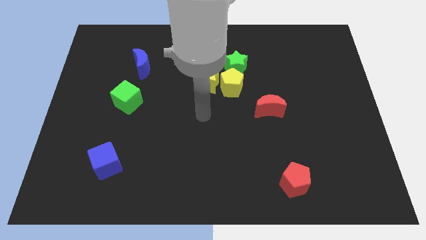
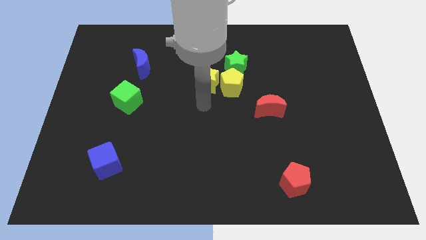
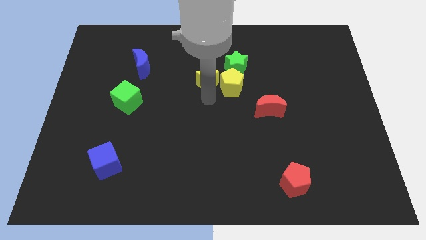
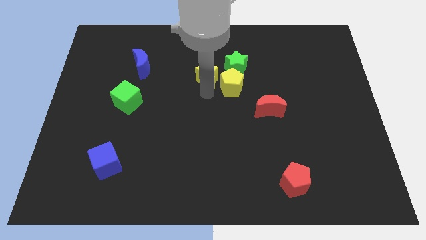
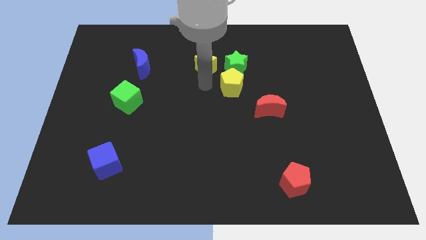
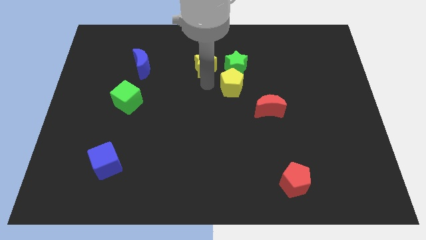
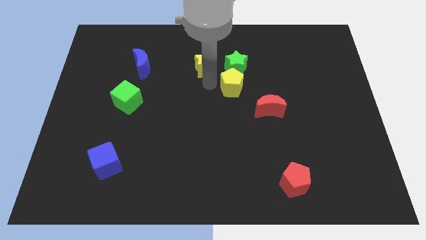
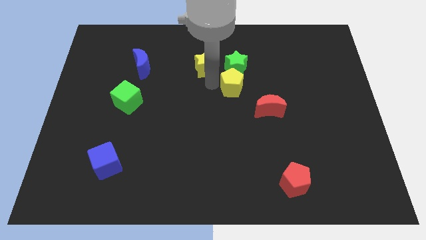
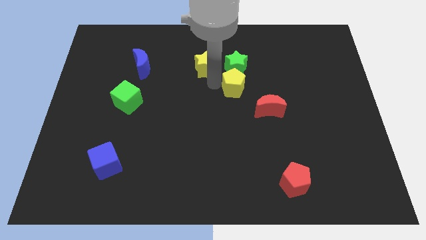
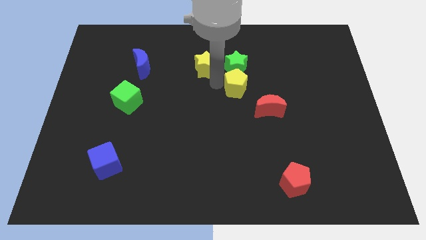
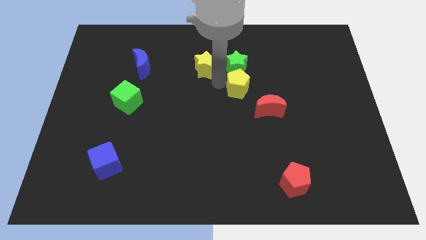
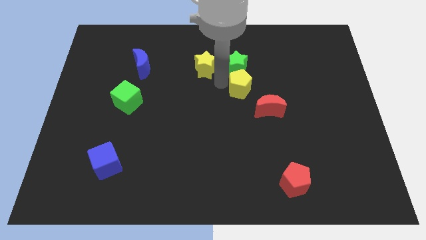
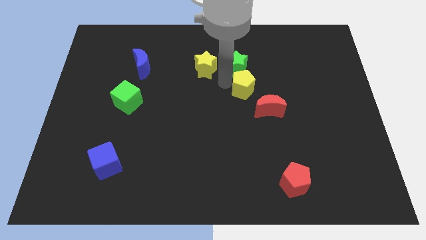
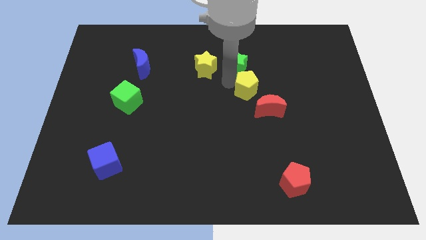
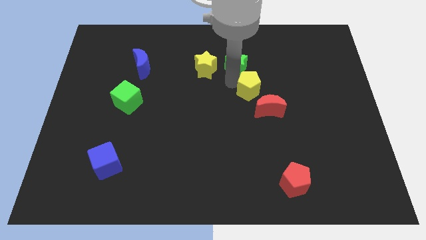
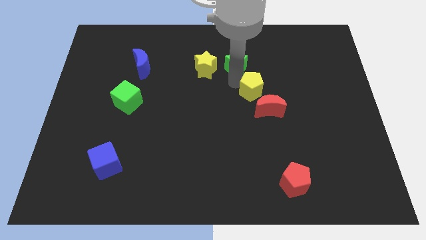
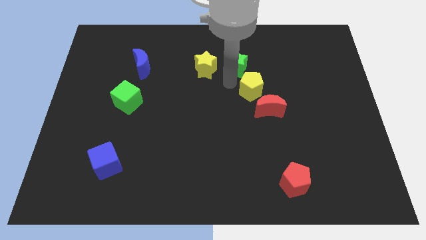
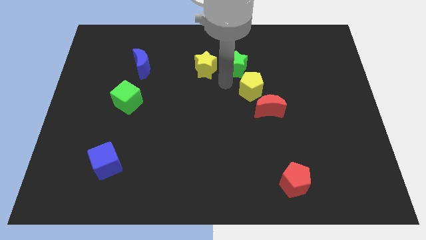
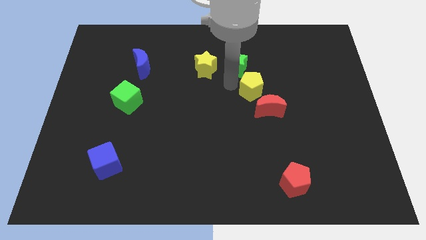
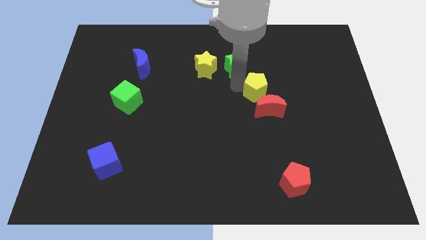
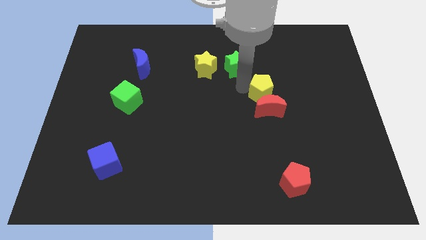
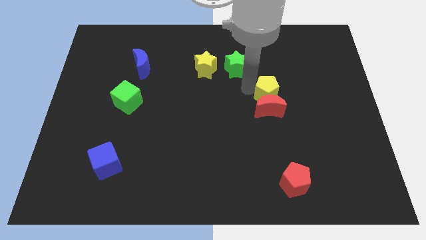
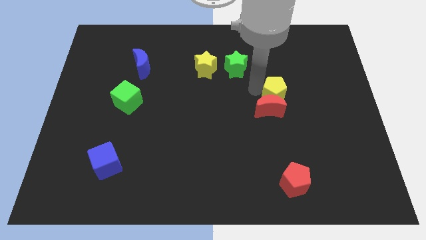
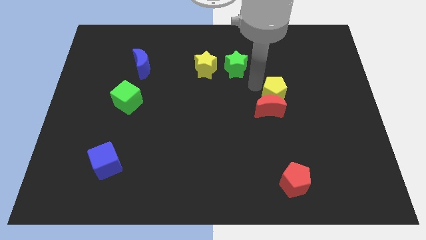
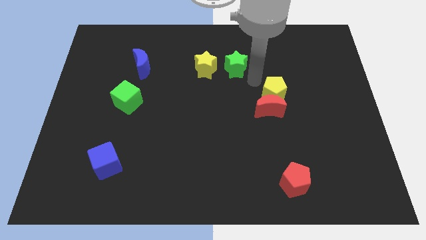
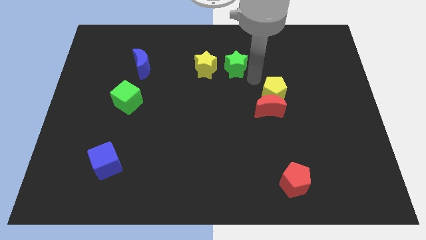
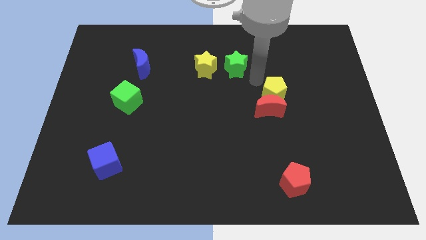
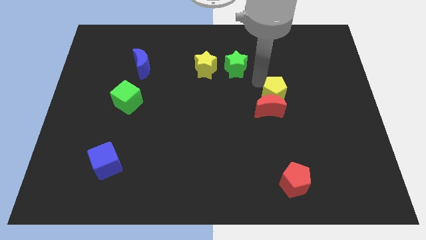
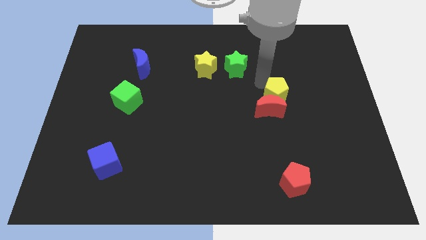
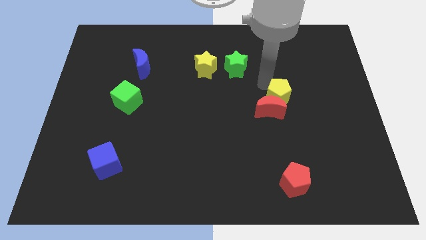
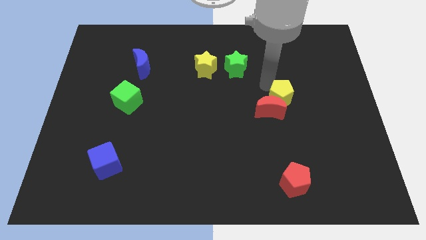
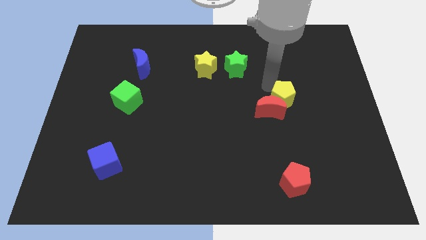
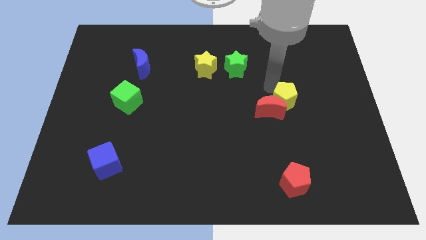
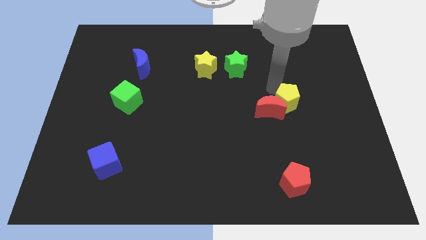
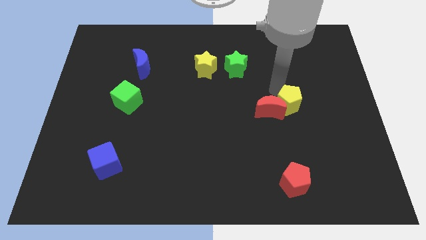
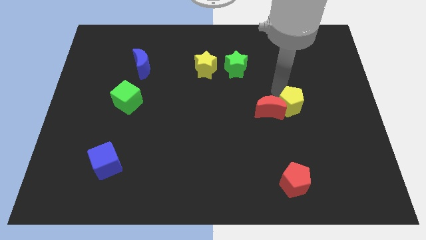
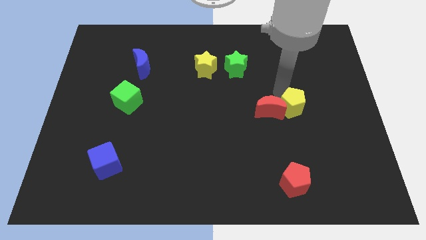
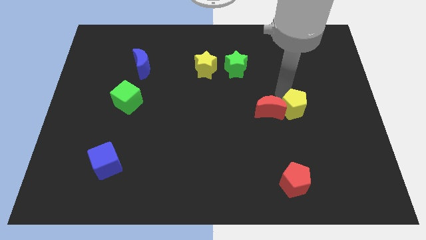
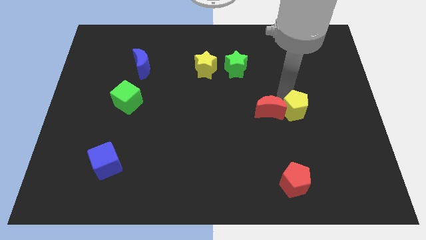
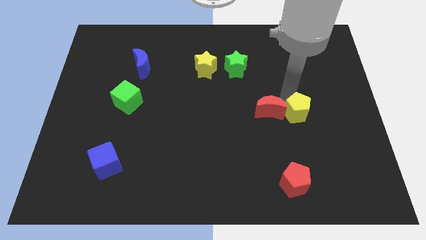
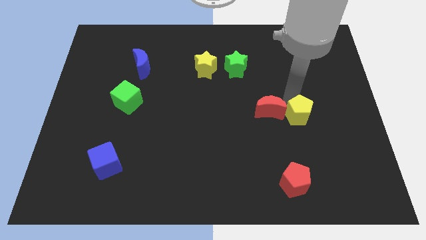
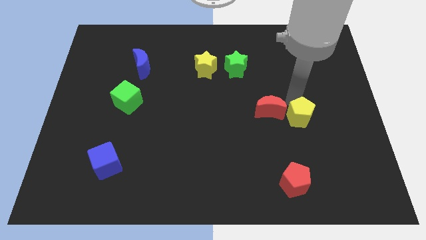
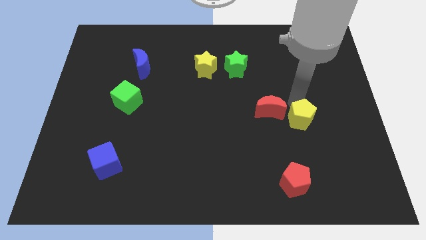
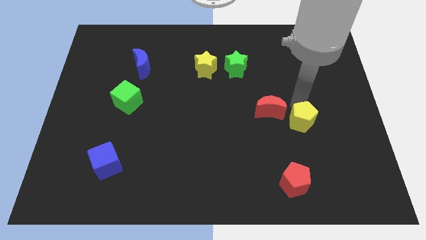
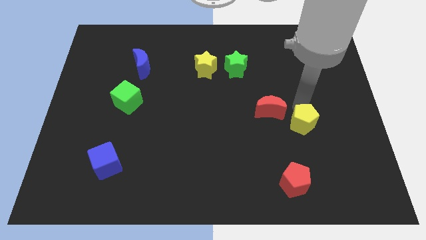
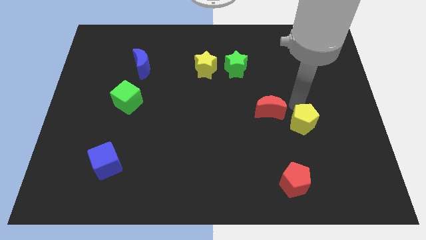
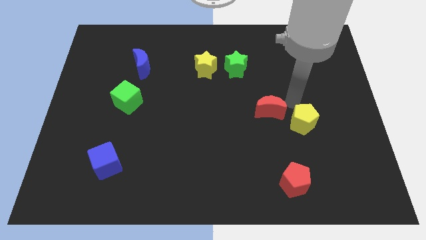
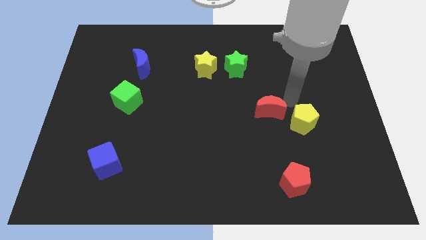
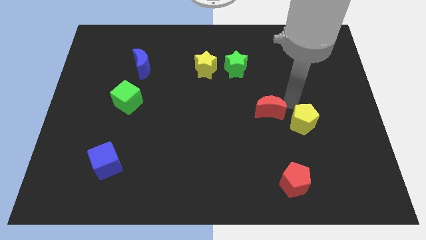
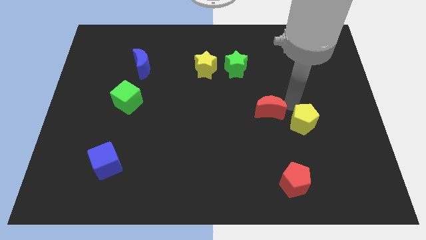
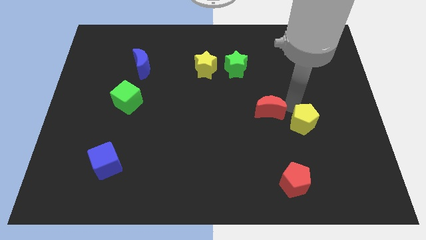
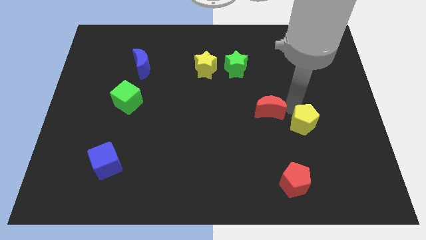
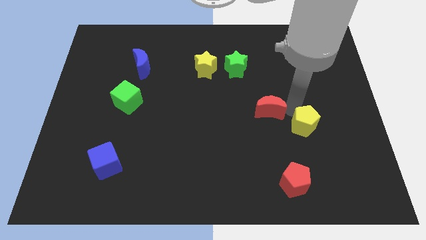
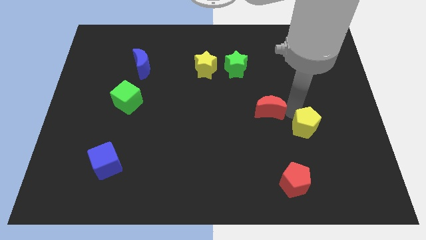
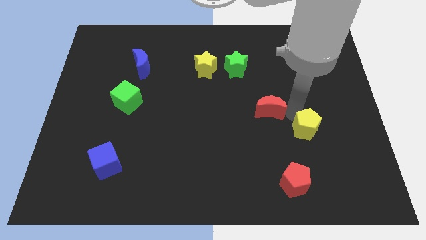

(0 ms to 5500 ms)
push the yellow pentagon diagonally down and right

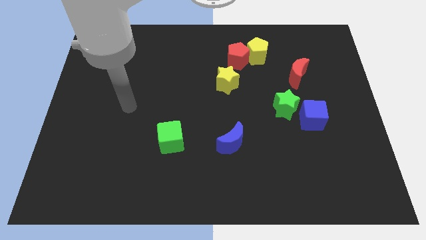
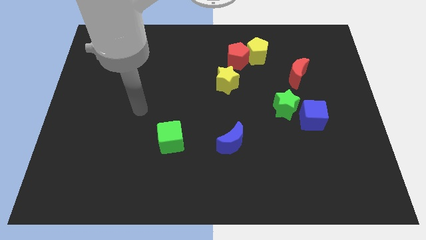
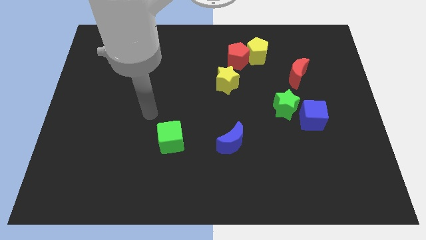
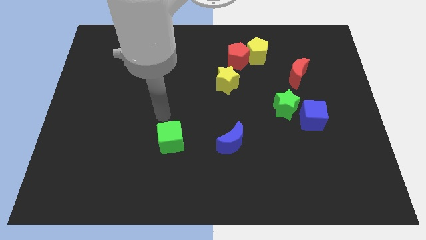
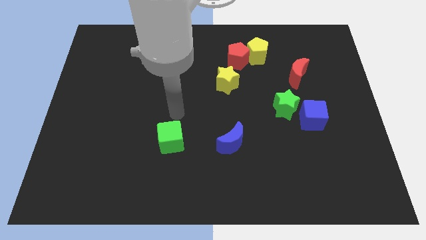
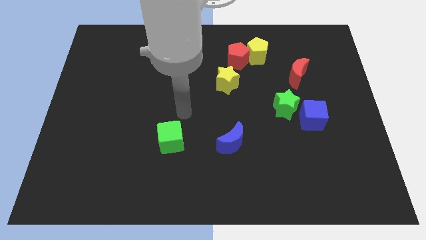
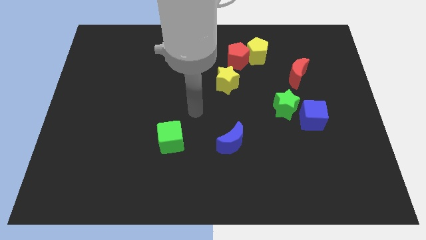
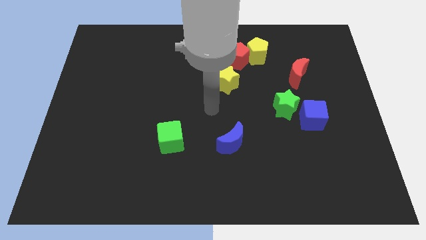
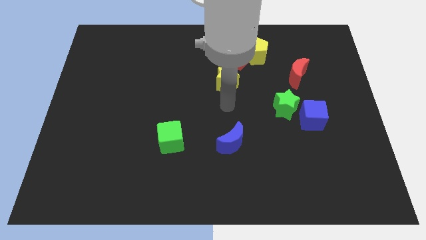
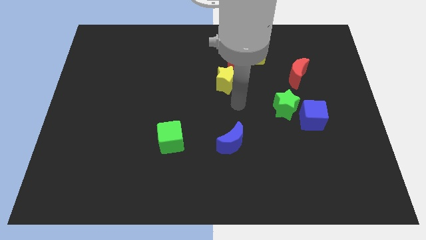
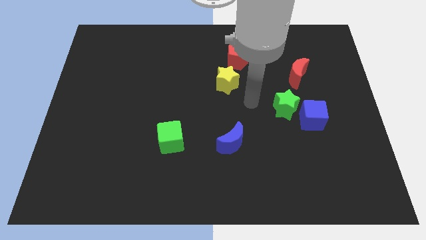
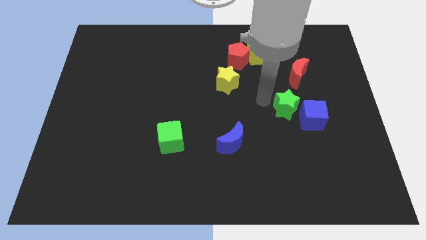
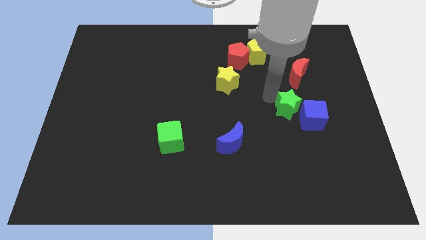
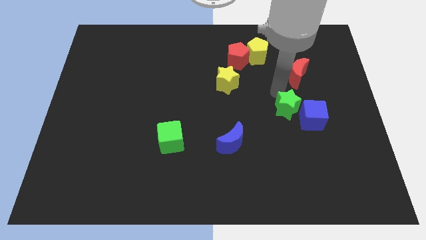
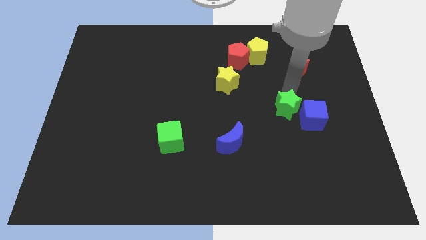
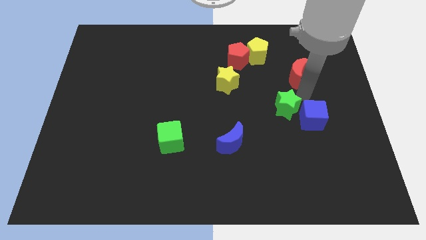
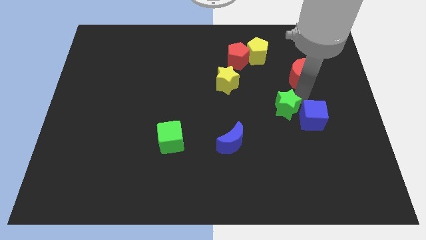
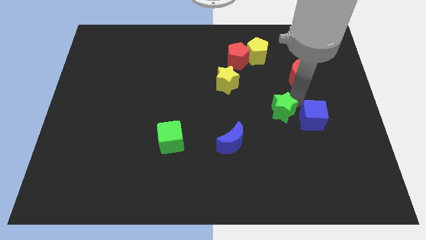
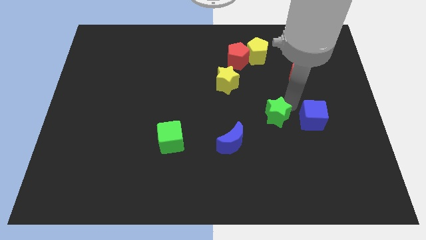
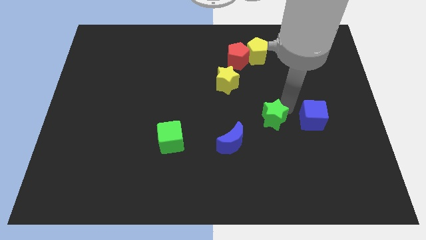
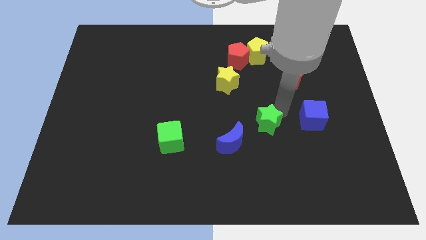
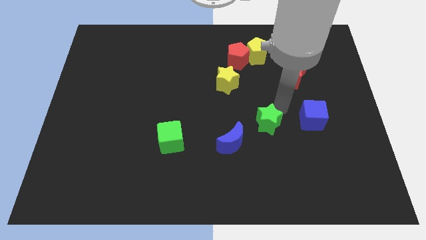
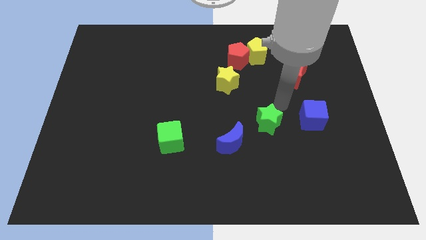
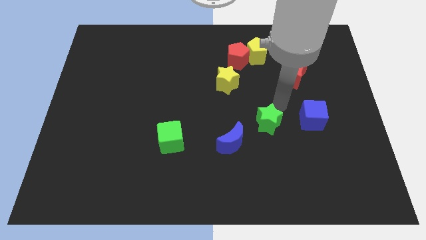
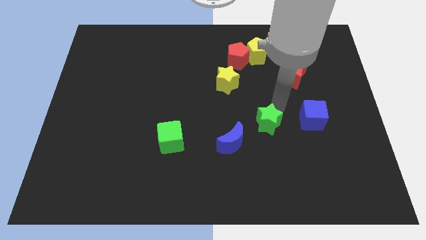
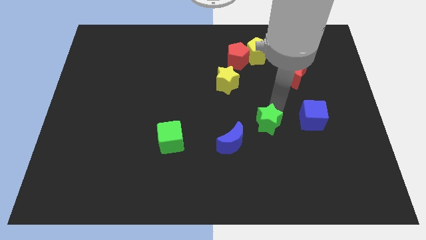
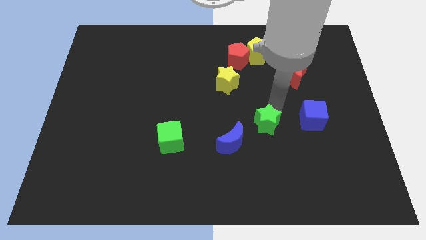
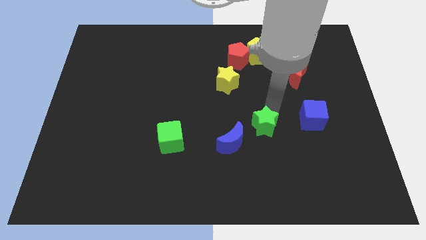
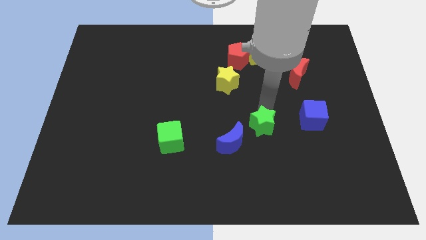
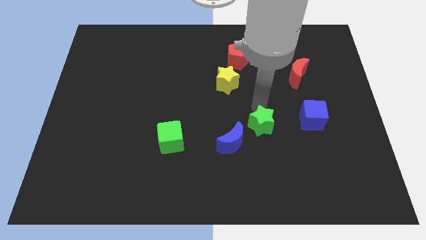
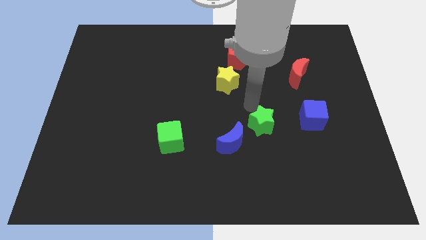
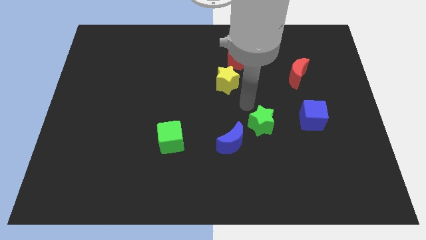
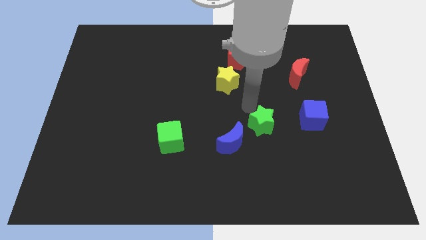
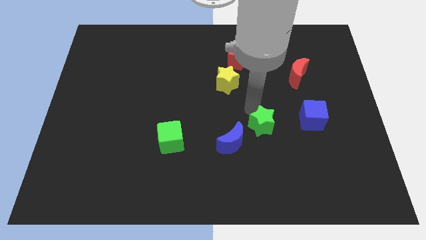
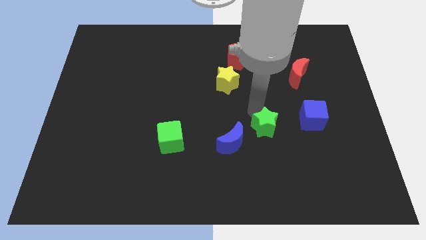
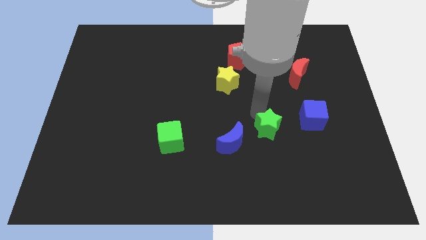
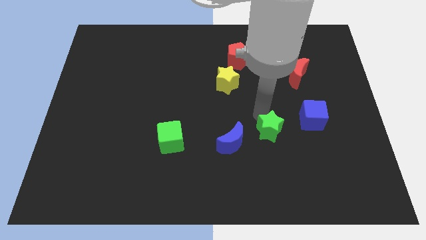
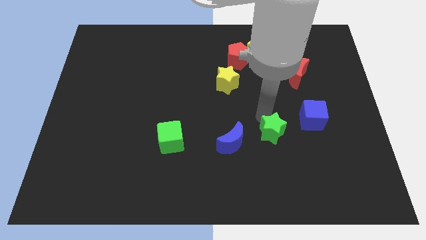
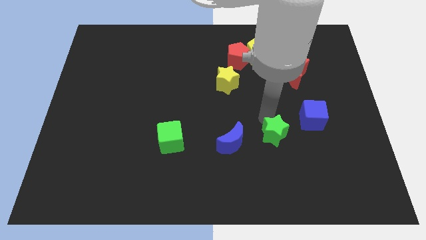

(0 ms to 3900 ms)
move the green star slightly down
